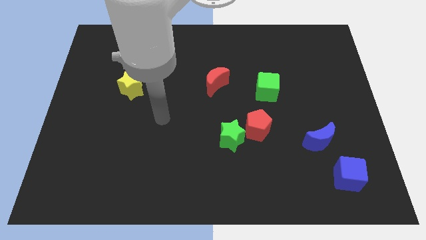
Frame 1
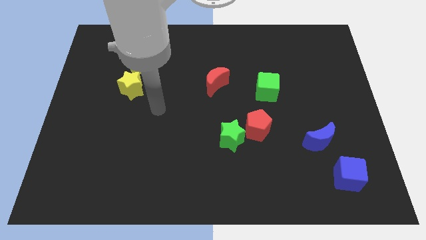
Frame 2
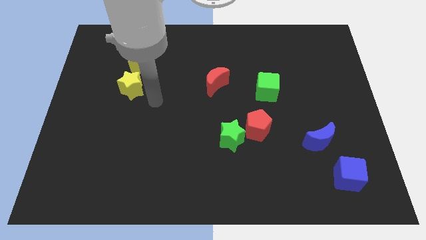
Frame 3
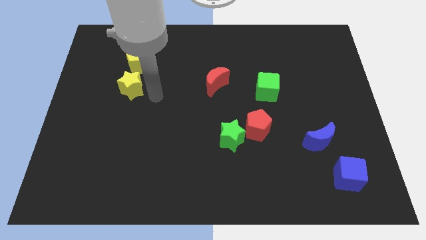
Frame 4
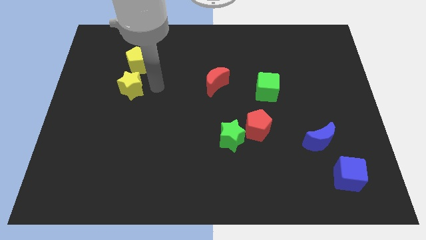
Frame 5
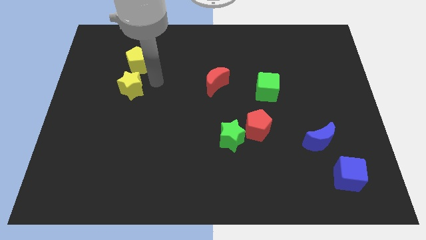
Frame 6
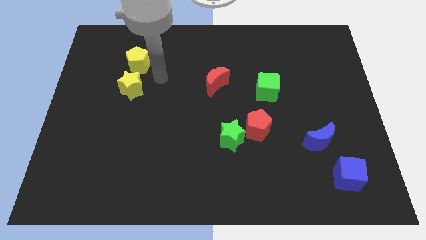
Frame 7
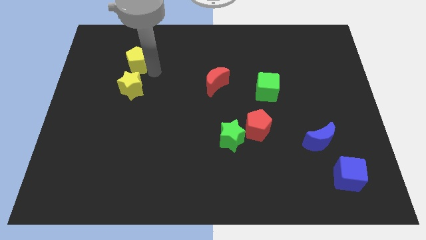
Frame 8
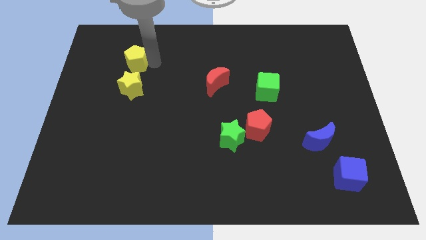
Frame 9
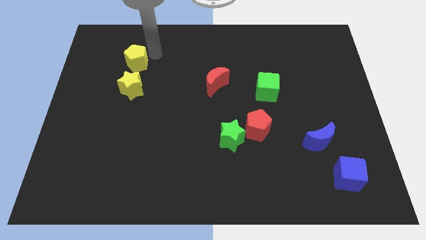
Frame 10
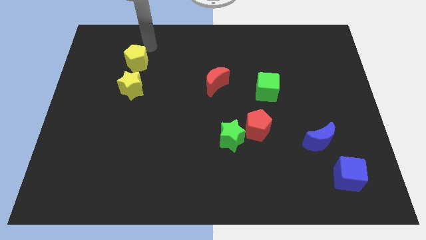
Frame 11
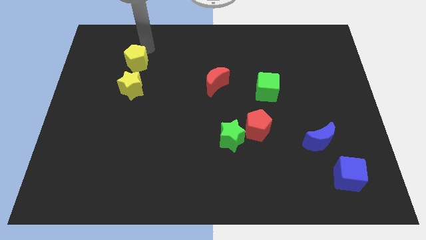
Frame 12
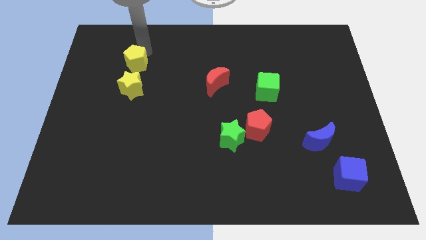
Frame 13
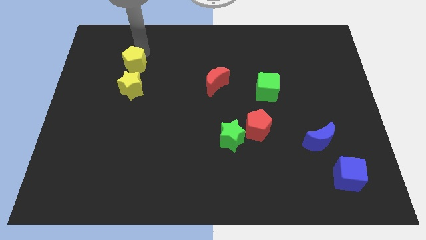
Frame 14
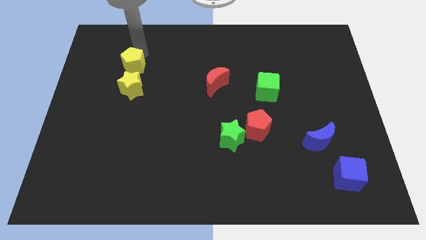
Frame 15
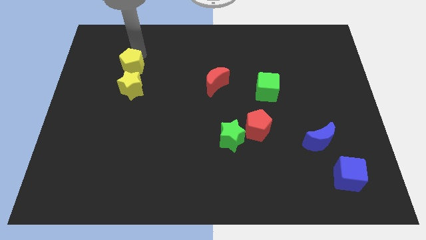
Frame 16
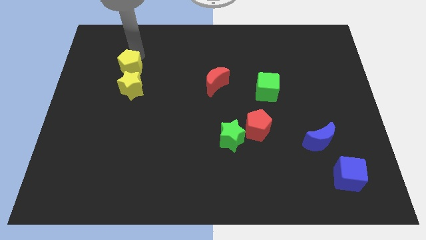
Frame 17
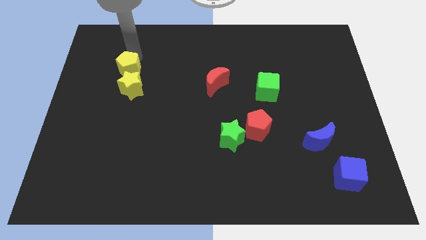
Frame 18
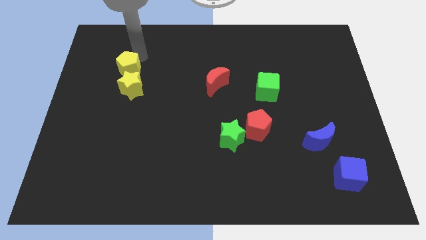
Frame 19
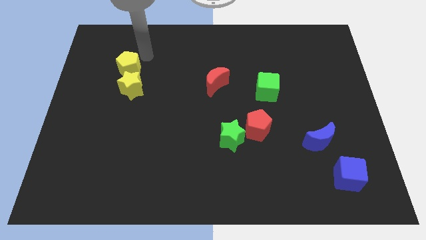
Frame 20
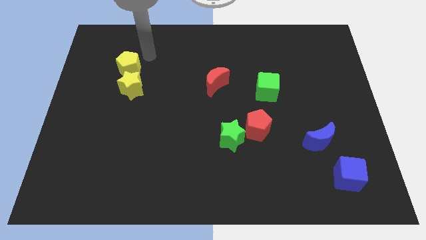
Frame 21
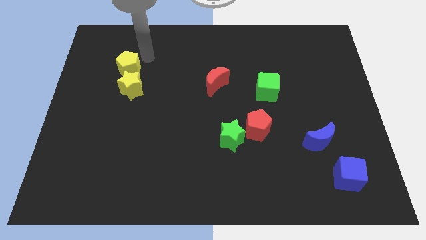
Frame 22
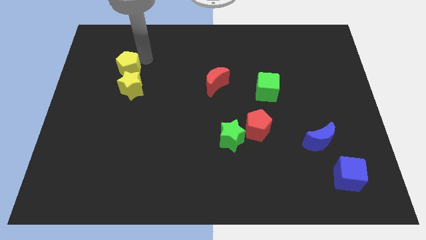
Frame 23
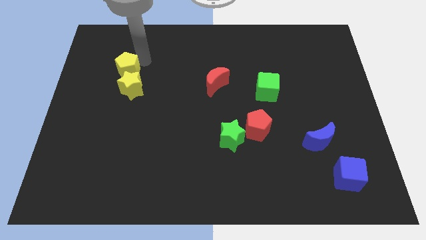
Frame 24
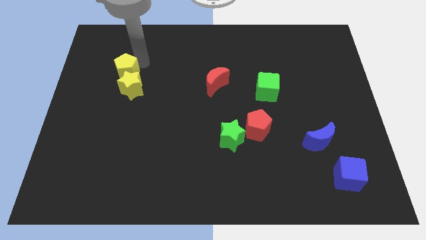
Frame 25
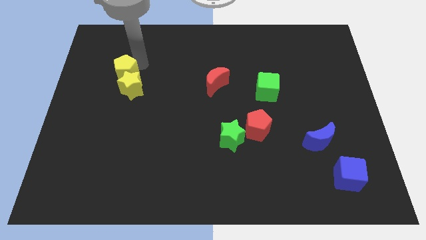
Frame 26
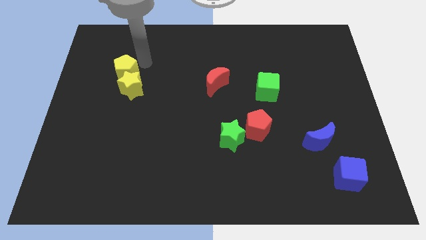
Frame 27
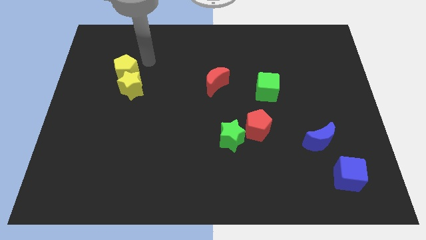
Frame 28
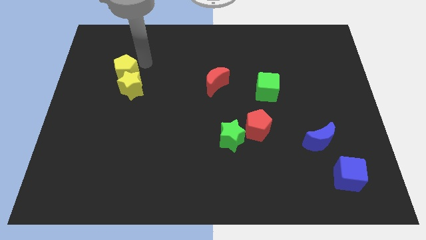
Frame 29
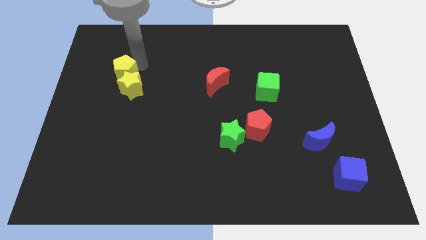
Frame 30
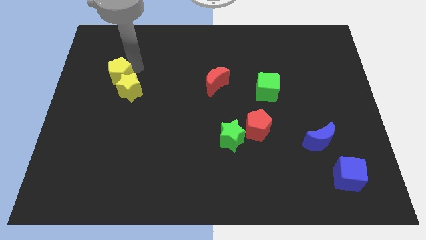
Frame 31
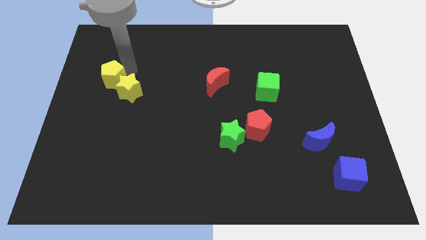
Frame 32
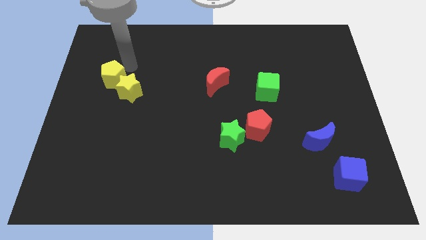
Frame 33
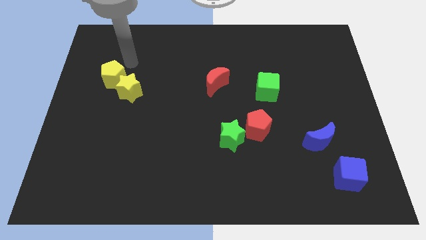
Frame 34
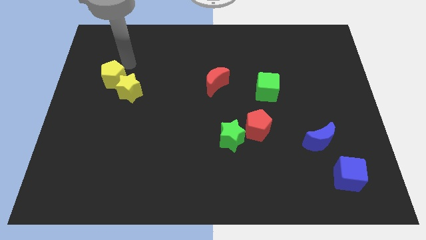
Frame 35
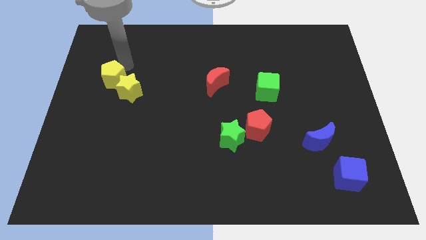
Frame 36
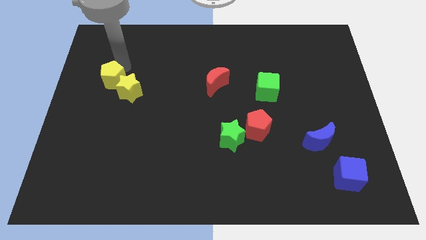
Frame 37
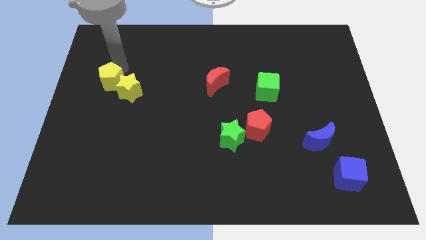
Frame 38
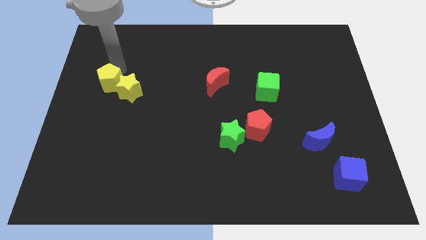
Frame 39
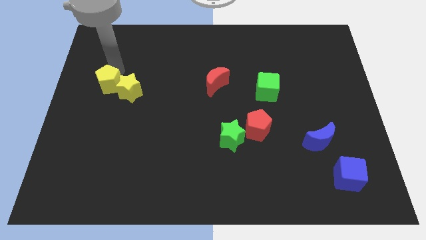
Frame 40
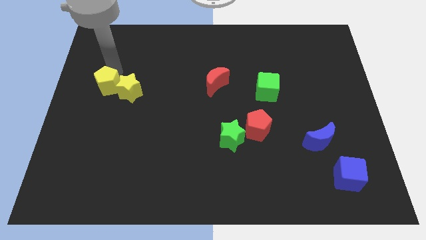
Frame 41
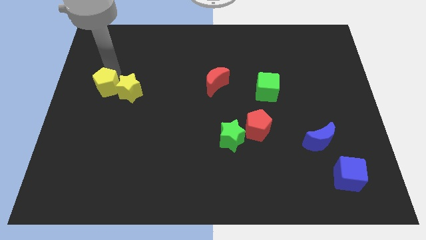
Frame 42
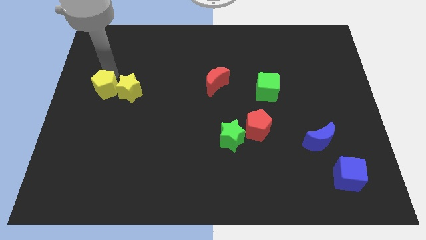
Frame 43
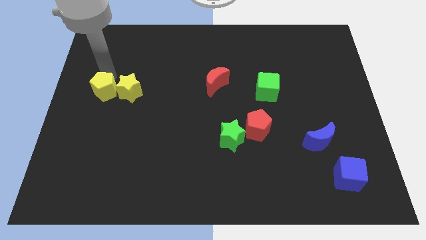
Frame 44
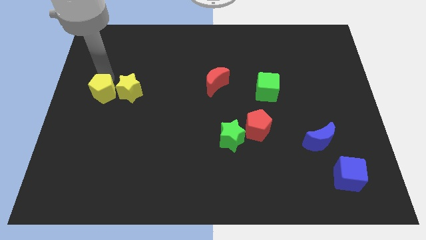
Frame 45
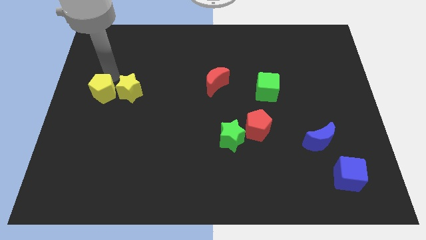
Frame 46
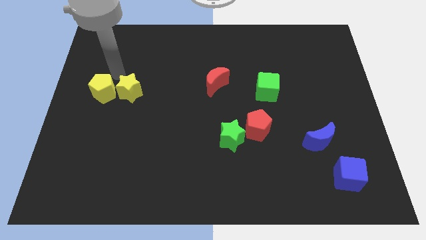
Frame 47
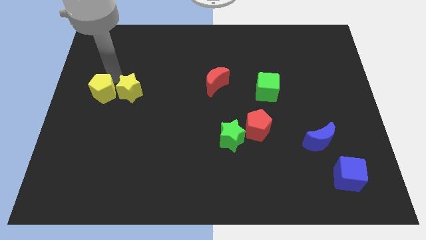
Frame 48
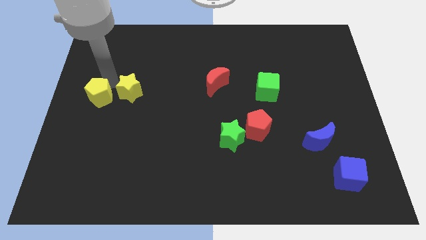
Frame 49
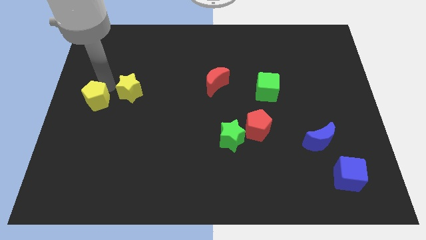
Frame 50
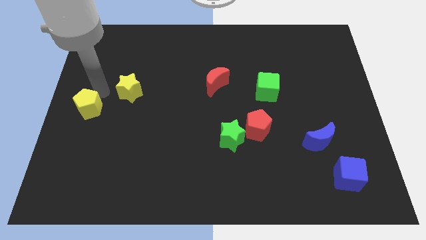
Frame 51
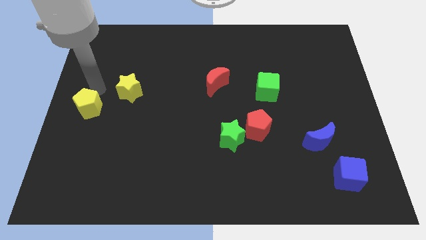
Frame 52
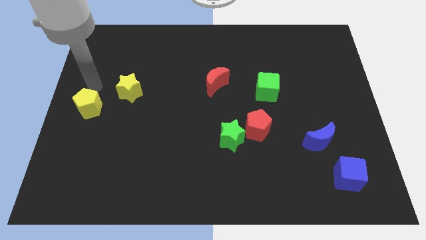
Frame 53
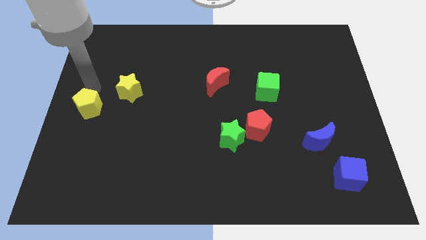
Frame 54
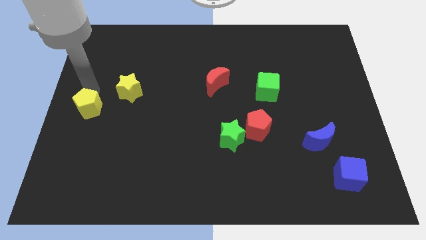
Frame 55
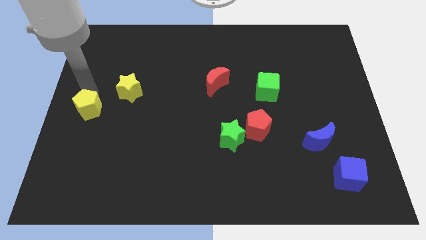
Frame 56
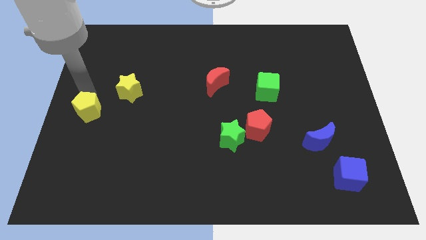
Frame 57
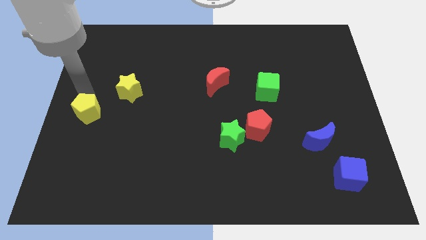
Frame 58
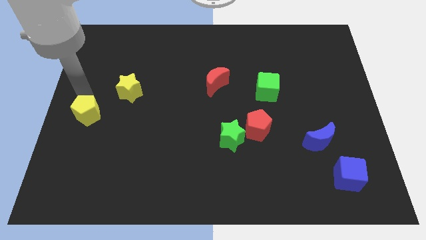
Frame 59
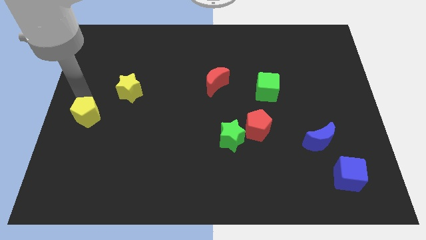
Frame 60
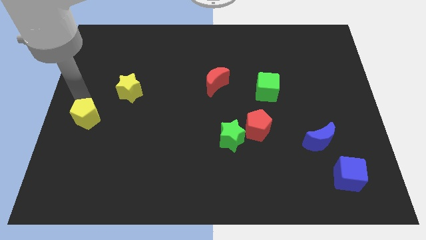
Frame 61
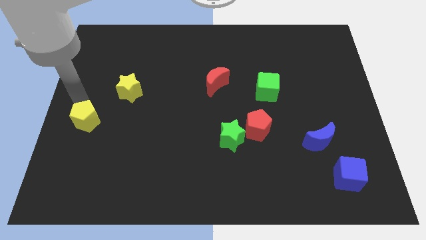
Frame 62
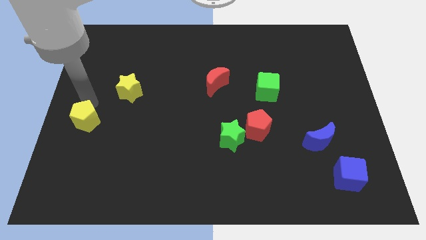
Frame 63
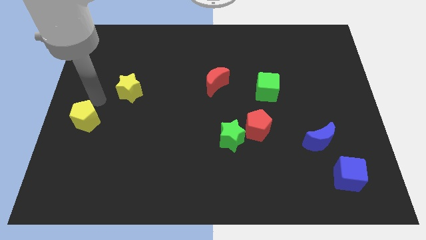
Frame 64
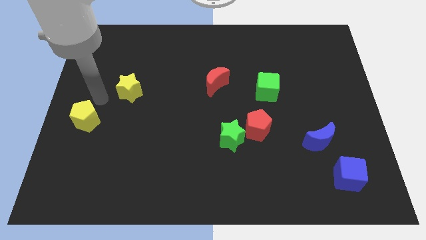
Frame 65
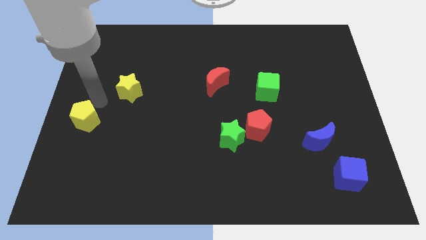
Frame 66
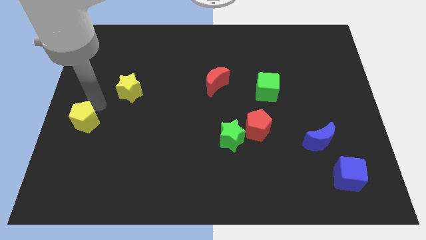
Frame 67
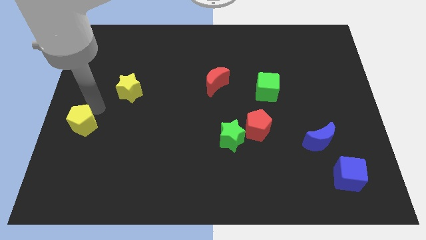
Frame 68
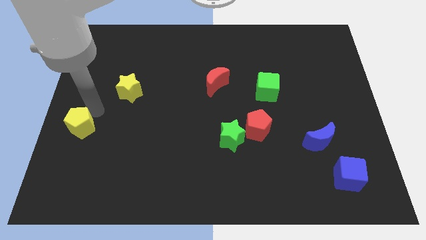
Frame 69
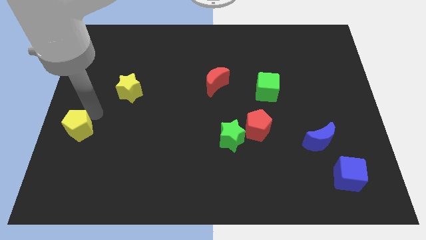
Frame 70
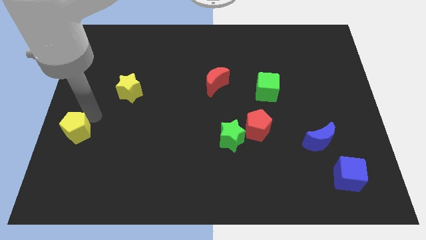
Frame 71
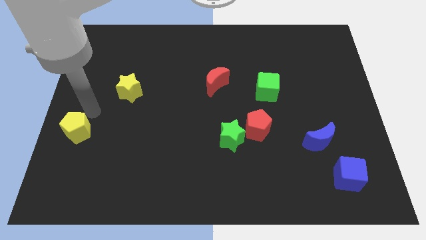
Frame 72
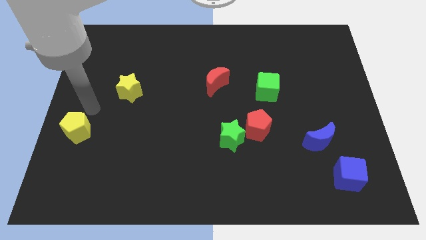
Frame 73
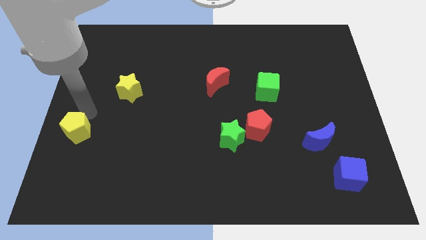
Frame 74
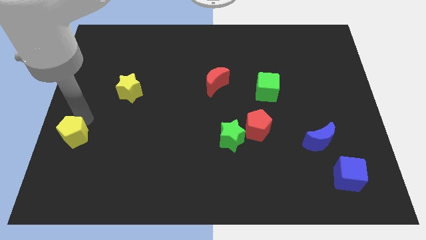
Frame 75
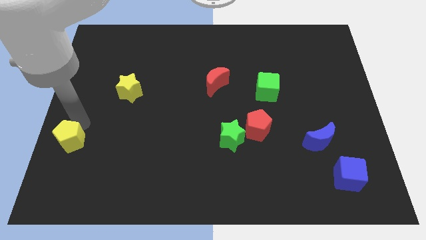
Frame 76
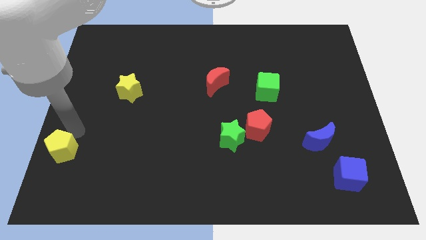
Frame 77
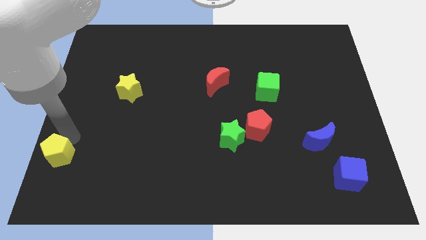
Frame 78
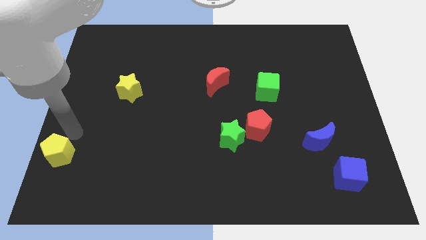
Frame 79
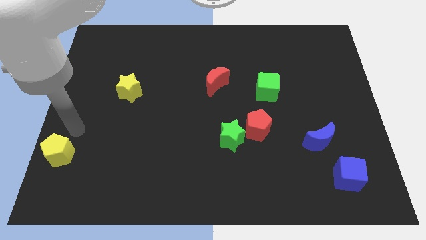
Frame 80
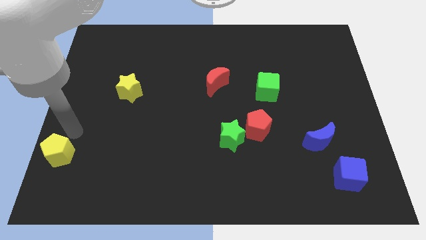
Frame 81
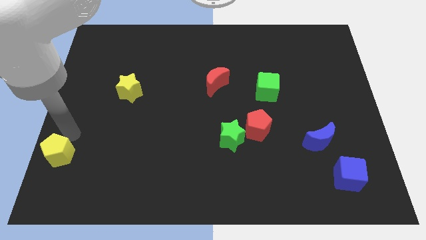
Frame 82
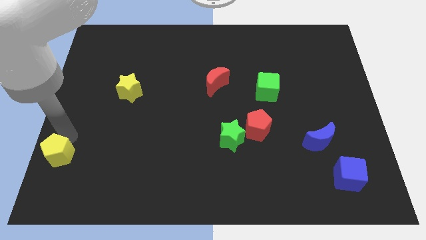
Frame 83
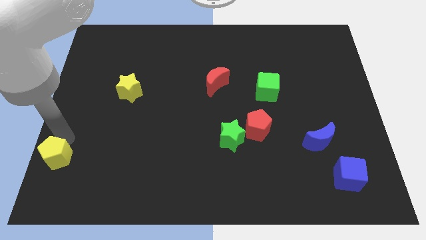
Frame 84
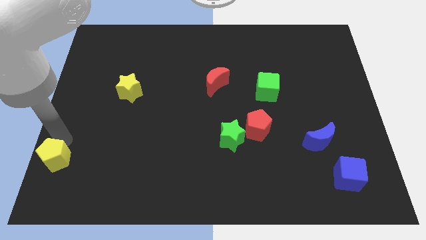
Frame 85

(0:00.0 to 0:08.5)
put the yellow pentagon to the bottom left of the board
